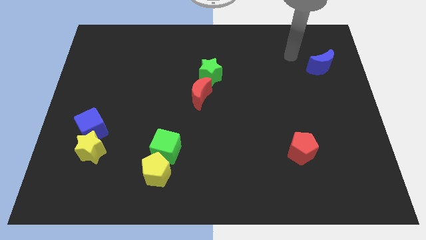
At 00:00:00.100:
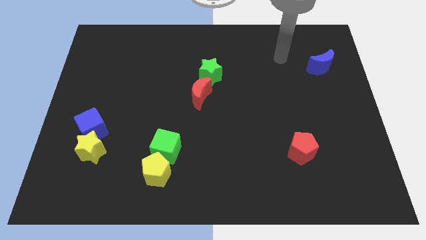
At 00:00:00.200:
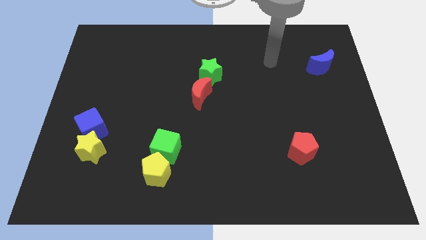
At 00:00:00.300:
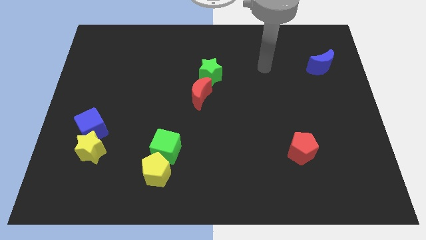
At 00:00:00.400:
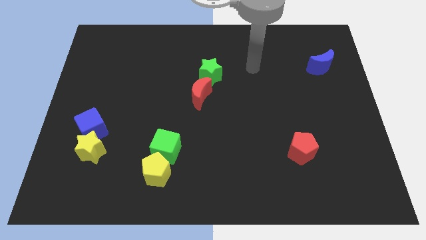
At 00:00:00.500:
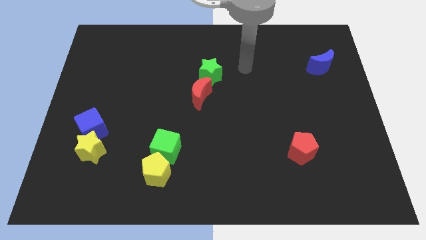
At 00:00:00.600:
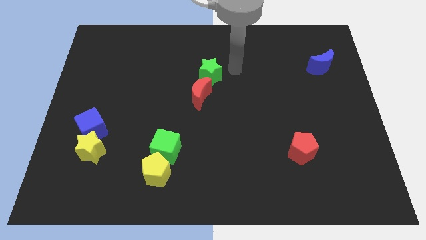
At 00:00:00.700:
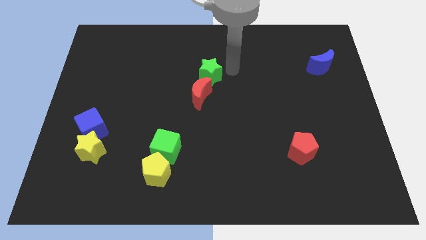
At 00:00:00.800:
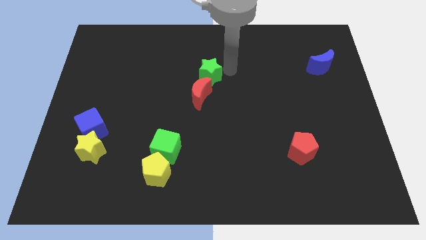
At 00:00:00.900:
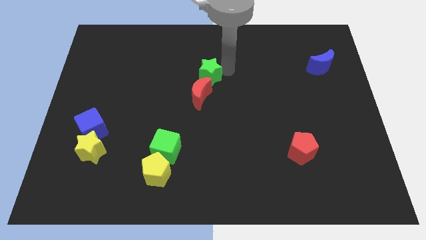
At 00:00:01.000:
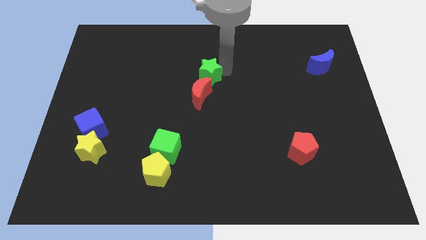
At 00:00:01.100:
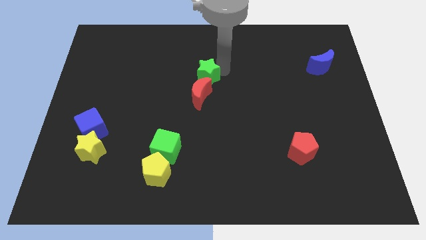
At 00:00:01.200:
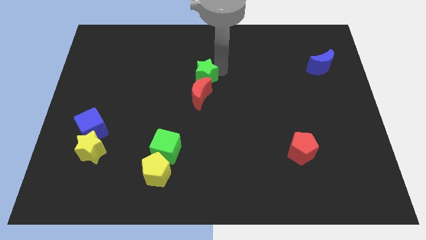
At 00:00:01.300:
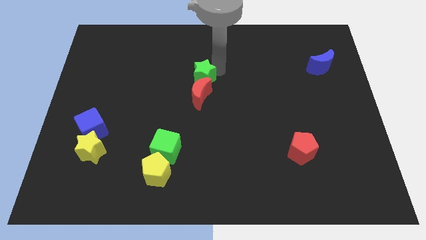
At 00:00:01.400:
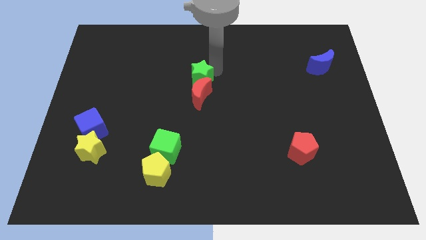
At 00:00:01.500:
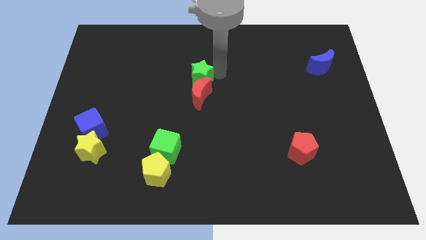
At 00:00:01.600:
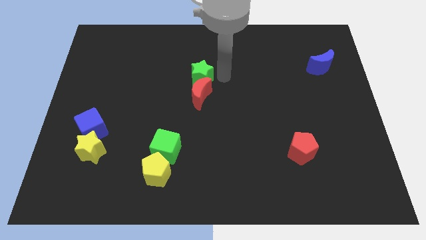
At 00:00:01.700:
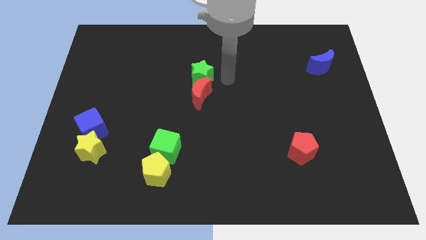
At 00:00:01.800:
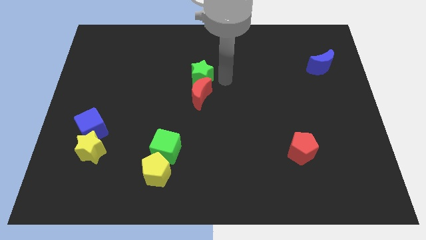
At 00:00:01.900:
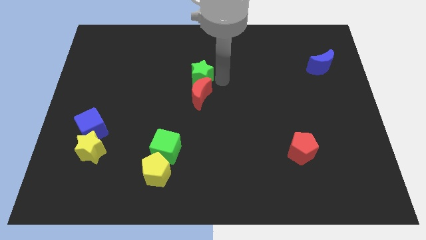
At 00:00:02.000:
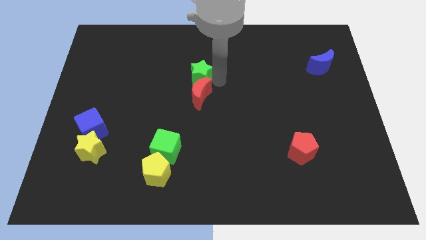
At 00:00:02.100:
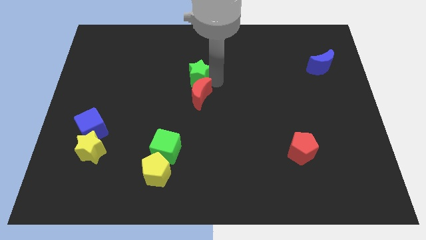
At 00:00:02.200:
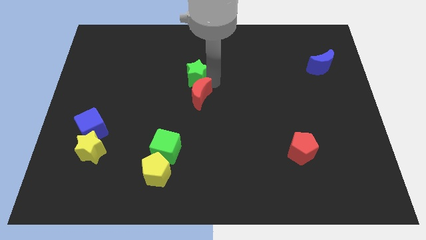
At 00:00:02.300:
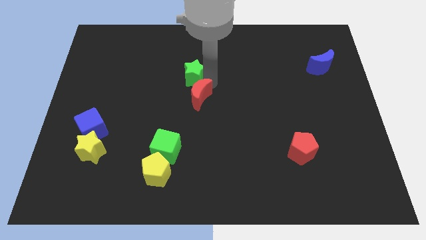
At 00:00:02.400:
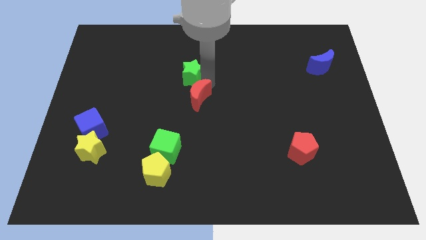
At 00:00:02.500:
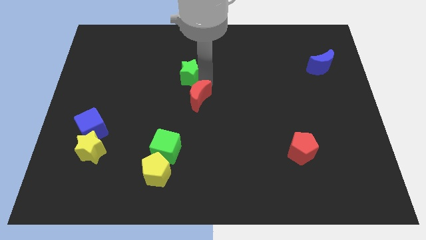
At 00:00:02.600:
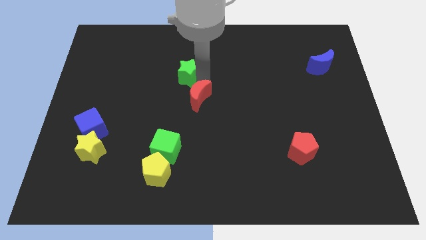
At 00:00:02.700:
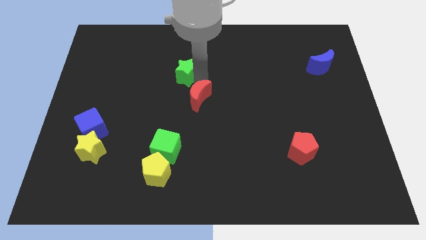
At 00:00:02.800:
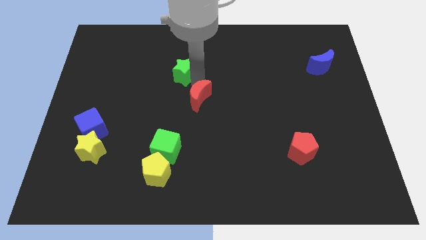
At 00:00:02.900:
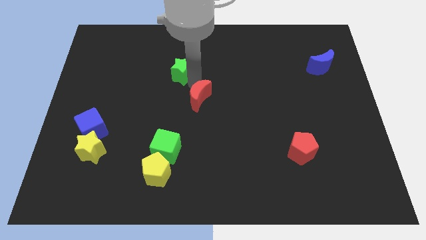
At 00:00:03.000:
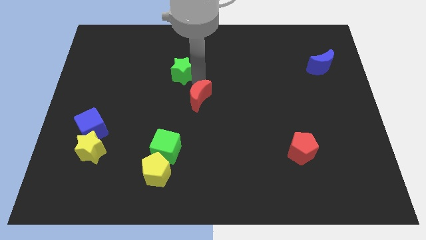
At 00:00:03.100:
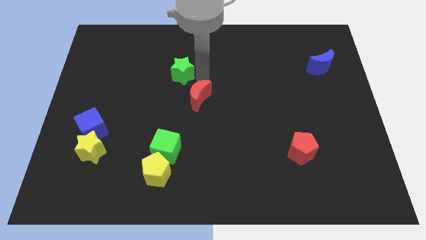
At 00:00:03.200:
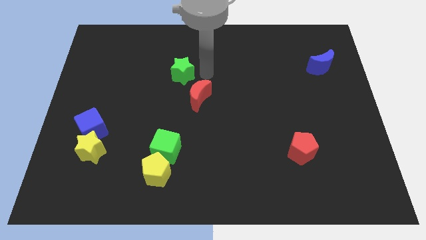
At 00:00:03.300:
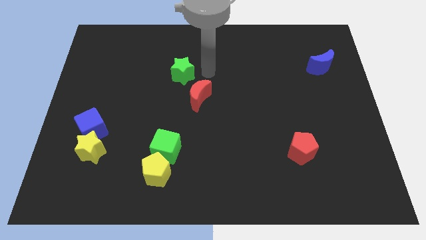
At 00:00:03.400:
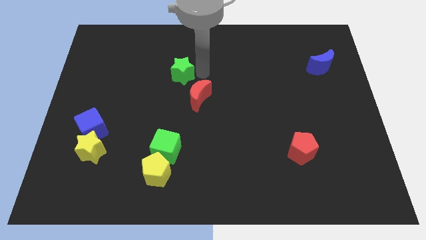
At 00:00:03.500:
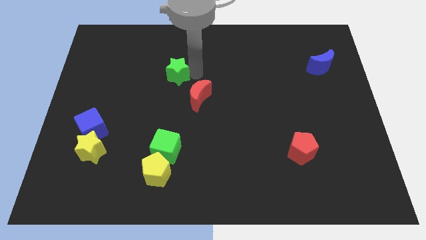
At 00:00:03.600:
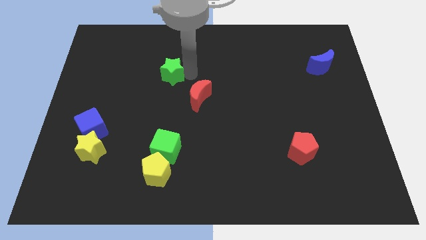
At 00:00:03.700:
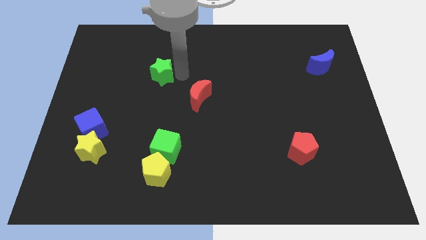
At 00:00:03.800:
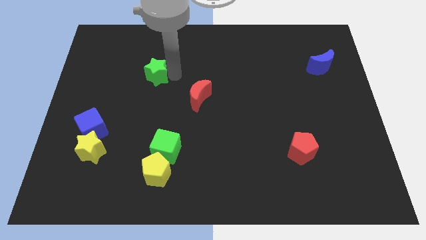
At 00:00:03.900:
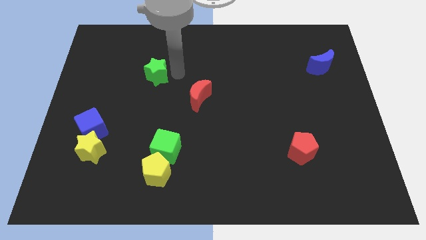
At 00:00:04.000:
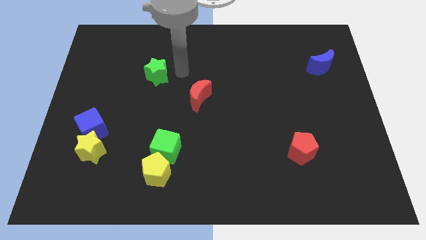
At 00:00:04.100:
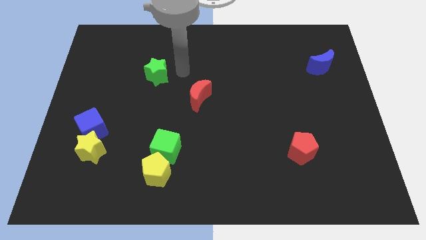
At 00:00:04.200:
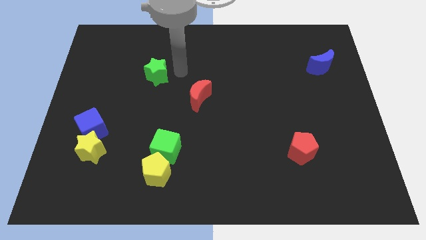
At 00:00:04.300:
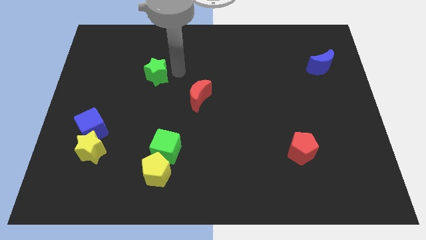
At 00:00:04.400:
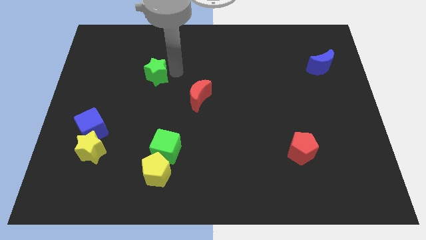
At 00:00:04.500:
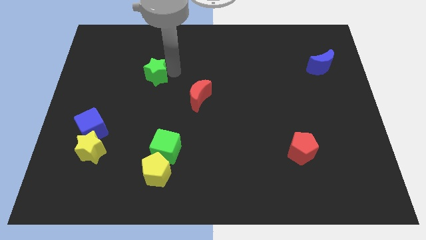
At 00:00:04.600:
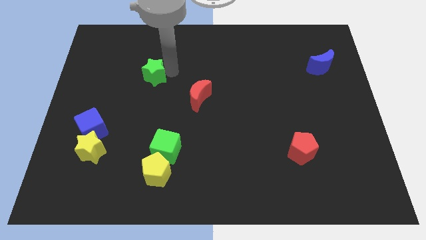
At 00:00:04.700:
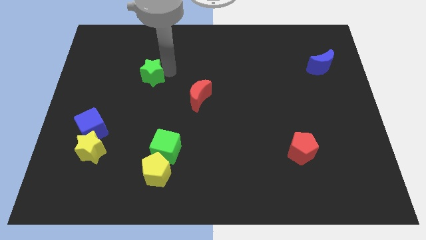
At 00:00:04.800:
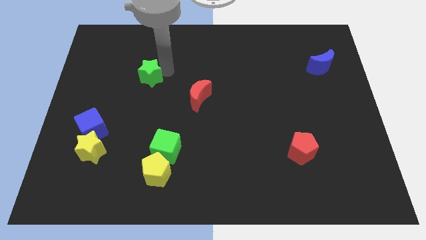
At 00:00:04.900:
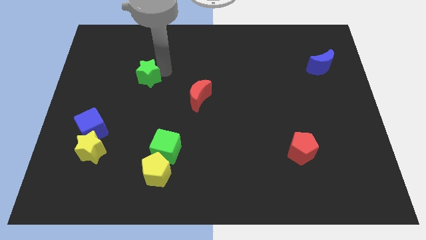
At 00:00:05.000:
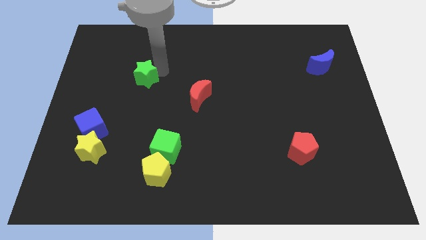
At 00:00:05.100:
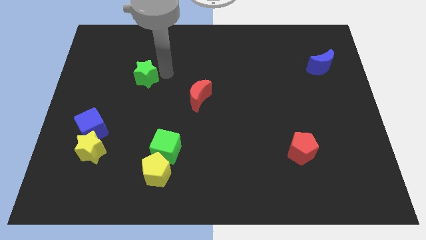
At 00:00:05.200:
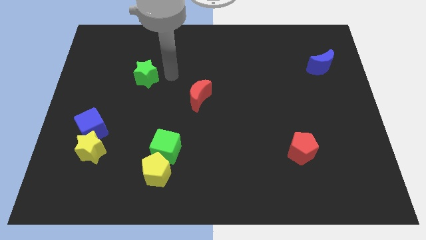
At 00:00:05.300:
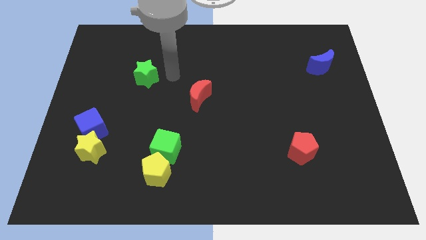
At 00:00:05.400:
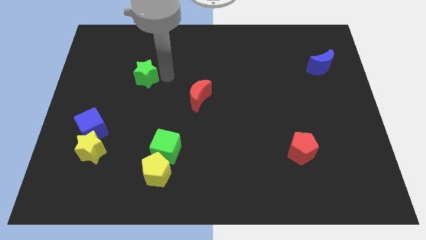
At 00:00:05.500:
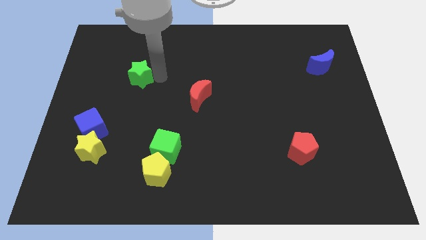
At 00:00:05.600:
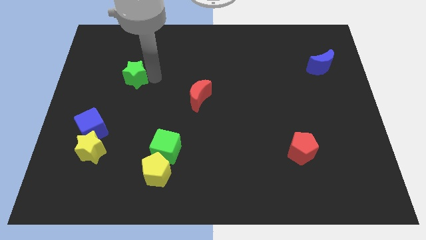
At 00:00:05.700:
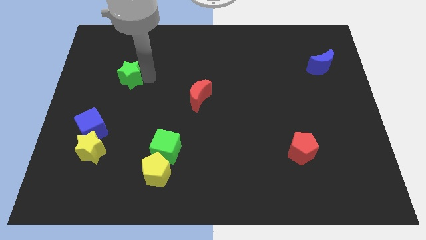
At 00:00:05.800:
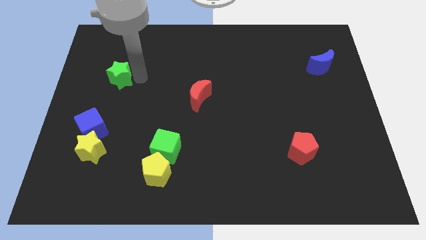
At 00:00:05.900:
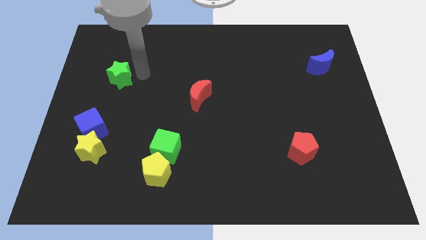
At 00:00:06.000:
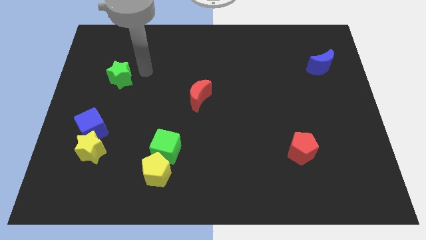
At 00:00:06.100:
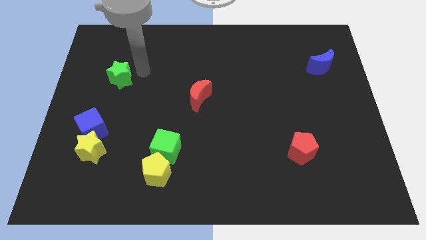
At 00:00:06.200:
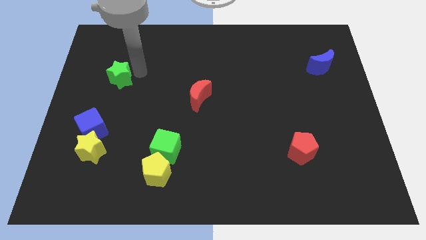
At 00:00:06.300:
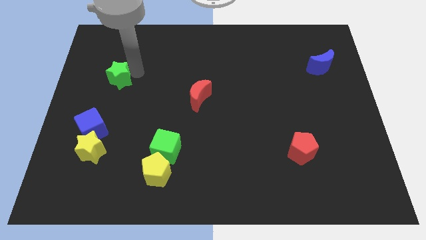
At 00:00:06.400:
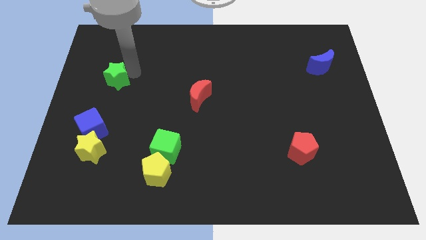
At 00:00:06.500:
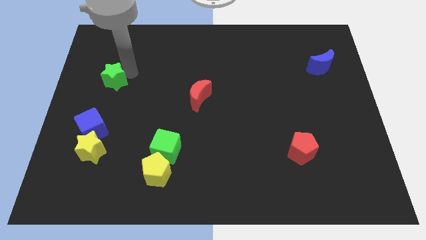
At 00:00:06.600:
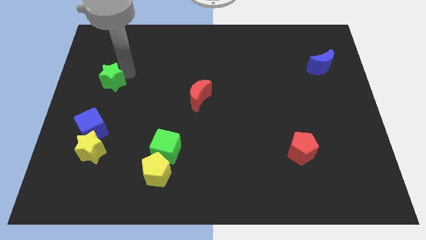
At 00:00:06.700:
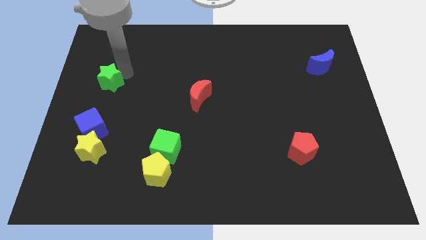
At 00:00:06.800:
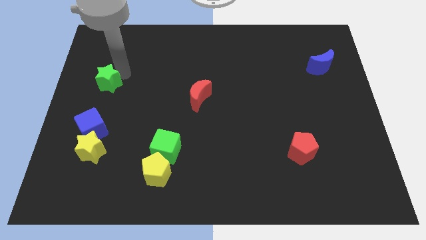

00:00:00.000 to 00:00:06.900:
put the green star to the left side of the board

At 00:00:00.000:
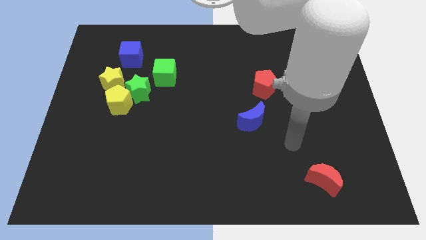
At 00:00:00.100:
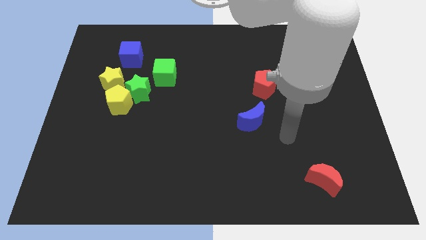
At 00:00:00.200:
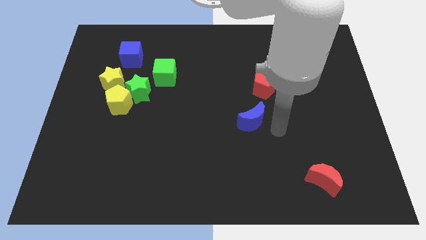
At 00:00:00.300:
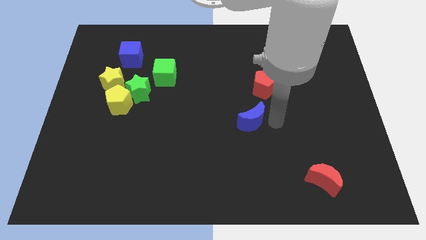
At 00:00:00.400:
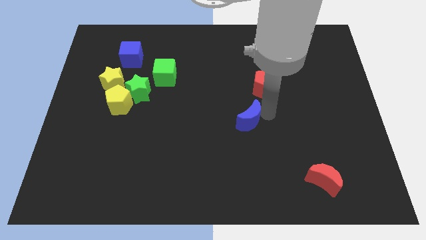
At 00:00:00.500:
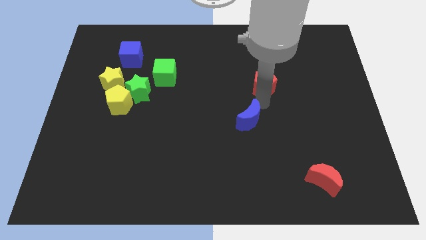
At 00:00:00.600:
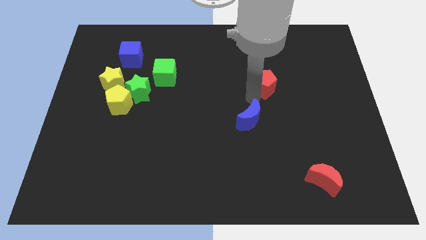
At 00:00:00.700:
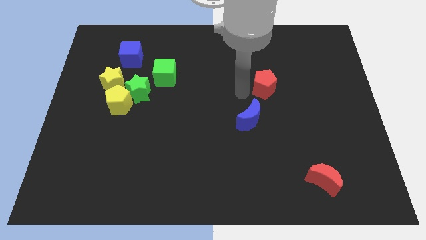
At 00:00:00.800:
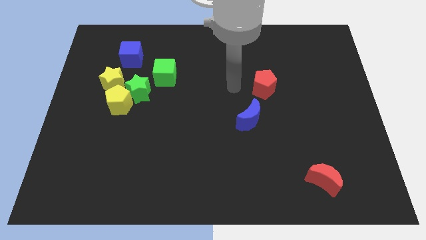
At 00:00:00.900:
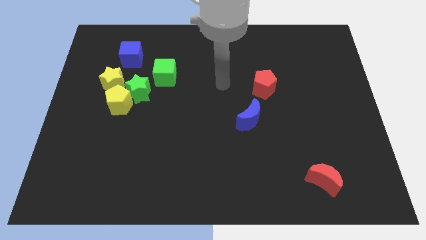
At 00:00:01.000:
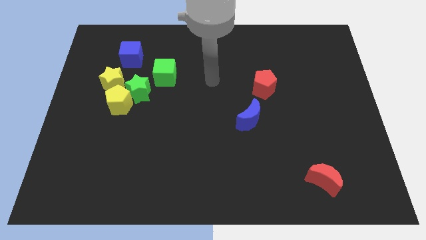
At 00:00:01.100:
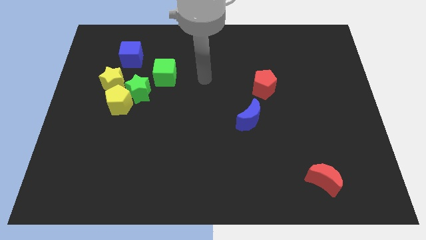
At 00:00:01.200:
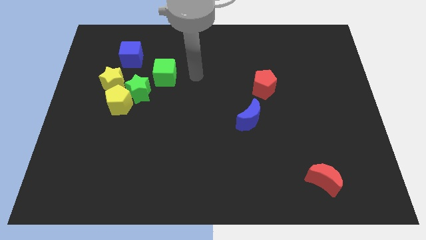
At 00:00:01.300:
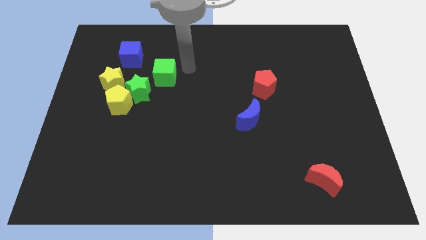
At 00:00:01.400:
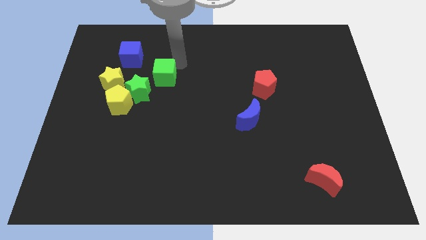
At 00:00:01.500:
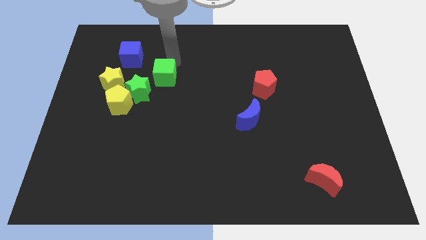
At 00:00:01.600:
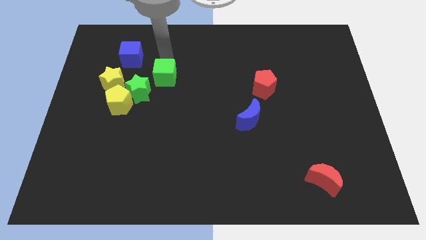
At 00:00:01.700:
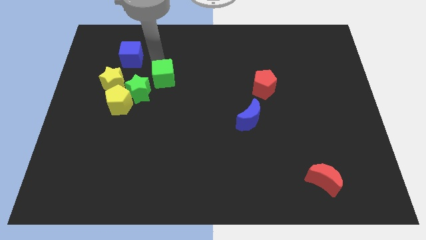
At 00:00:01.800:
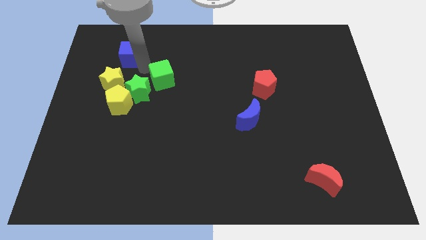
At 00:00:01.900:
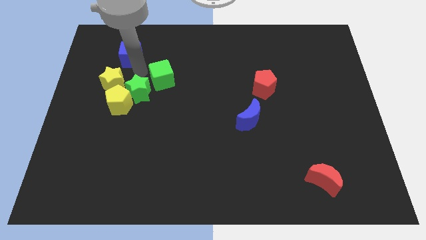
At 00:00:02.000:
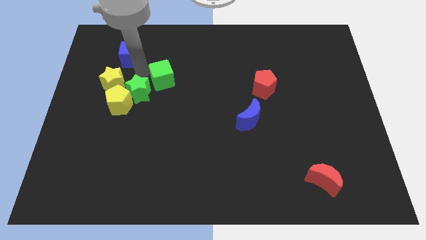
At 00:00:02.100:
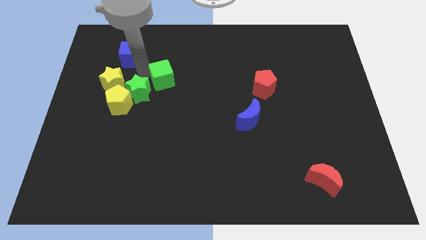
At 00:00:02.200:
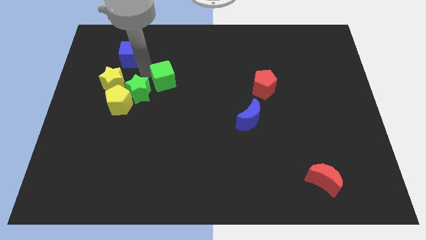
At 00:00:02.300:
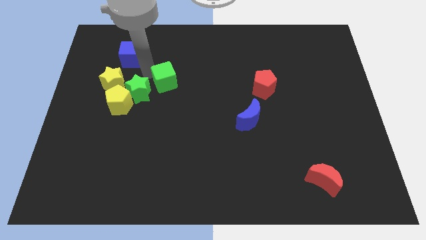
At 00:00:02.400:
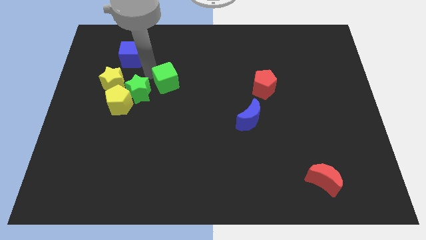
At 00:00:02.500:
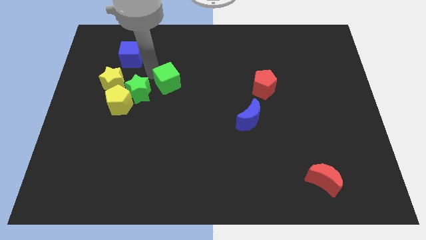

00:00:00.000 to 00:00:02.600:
move the green cube to the center of the board
